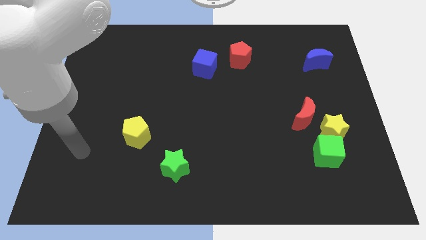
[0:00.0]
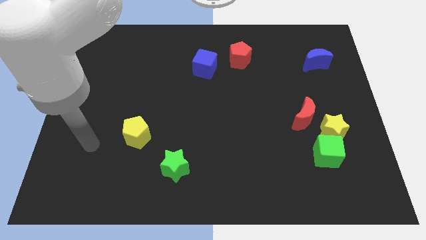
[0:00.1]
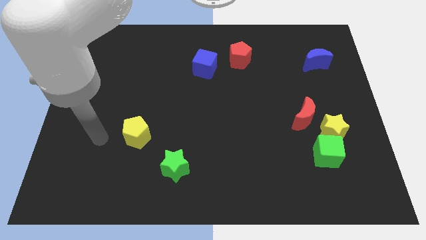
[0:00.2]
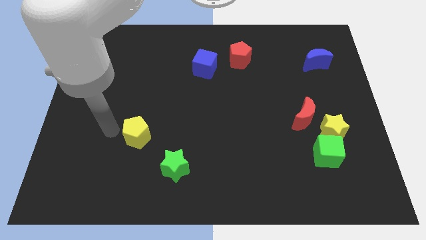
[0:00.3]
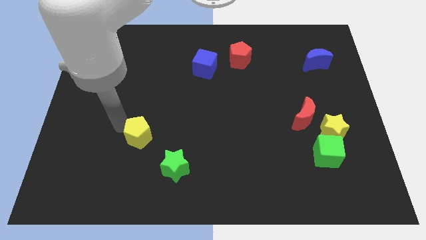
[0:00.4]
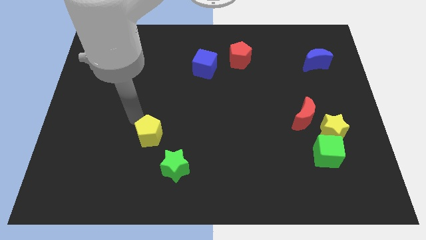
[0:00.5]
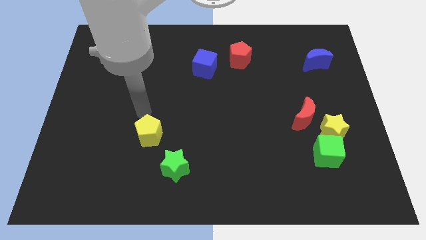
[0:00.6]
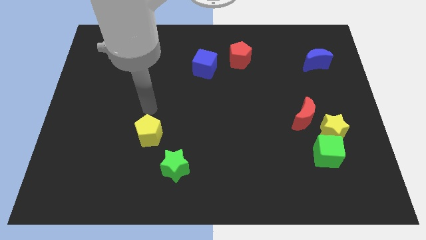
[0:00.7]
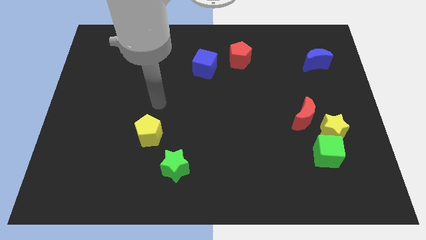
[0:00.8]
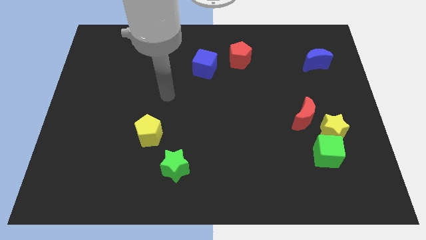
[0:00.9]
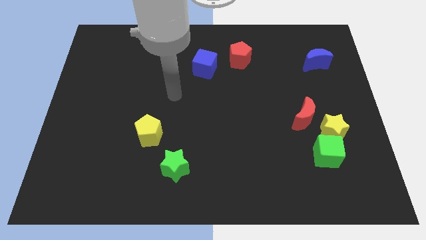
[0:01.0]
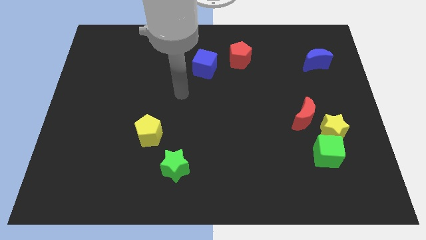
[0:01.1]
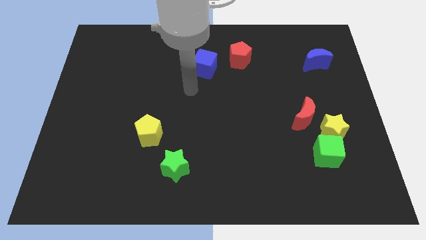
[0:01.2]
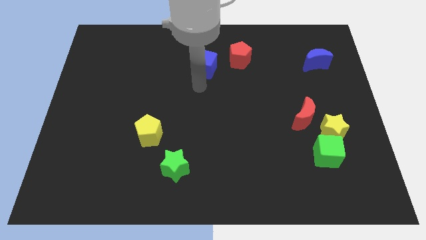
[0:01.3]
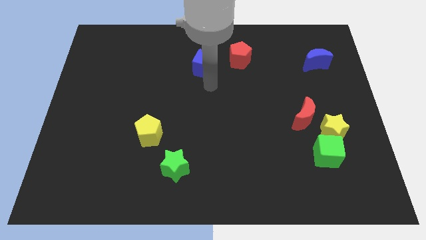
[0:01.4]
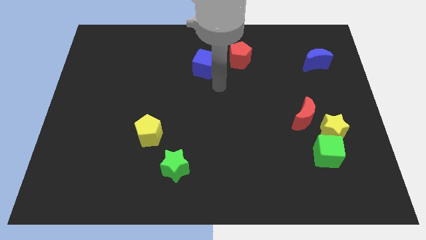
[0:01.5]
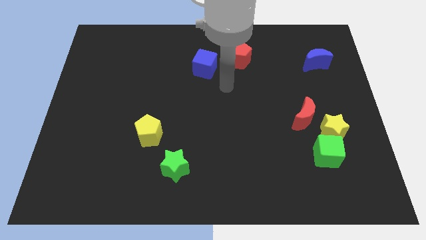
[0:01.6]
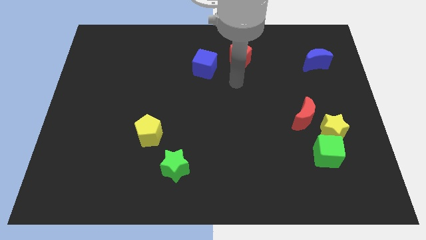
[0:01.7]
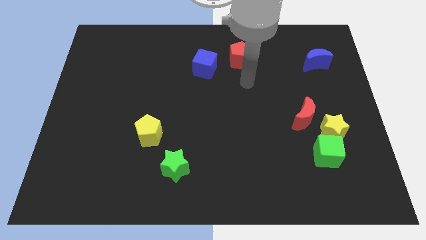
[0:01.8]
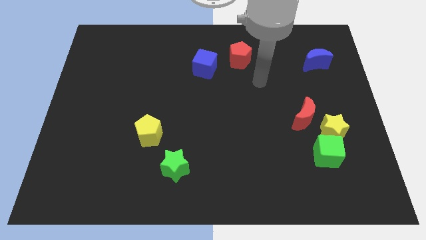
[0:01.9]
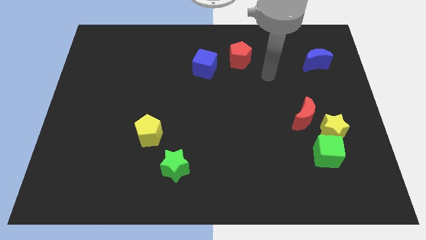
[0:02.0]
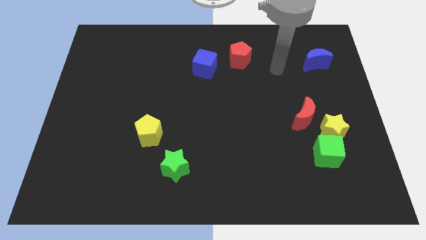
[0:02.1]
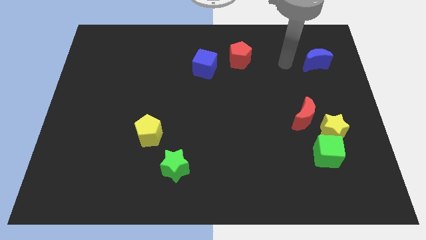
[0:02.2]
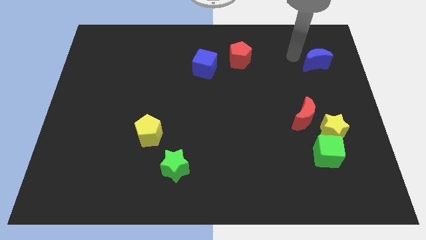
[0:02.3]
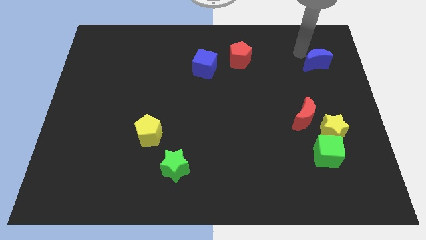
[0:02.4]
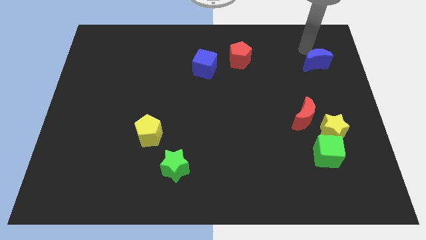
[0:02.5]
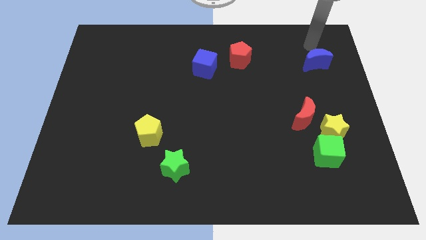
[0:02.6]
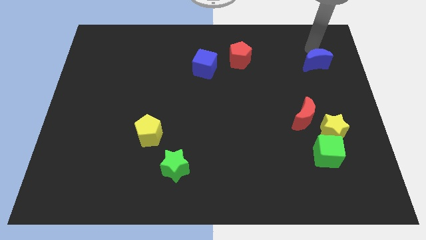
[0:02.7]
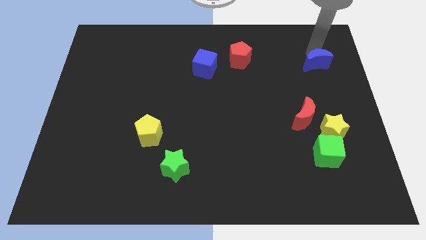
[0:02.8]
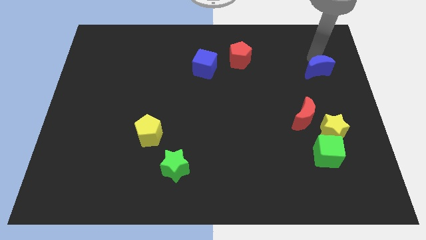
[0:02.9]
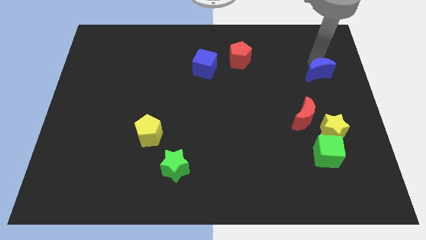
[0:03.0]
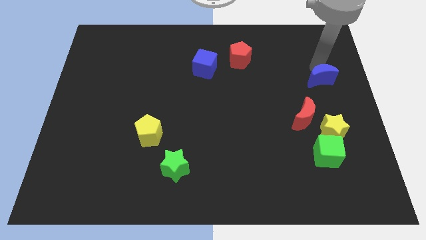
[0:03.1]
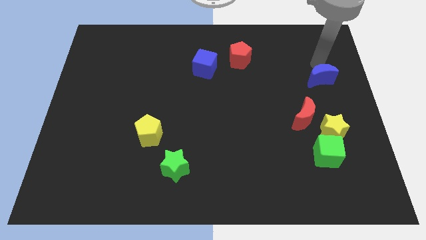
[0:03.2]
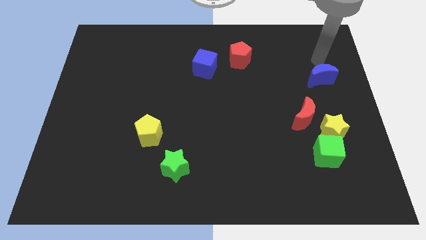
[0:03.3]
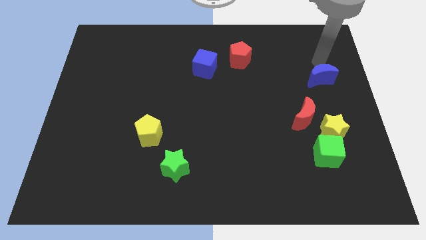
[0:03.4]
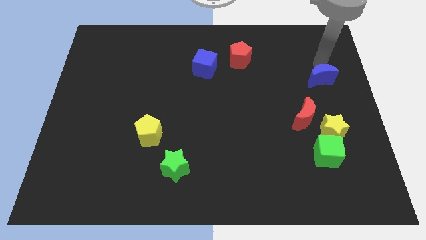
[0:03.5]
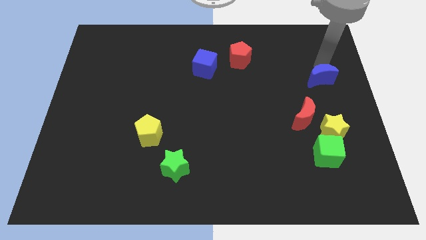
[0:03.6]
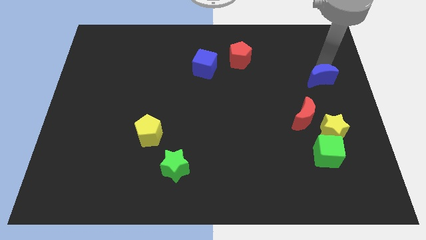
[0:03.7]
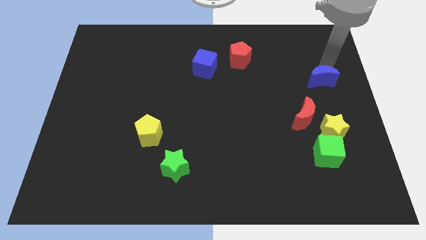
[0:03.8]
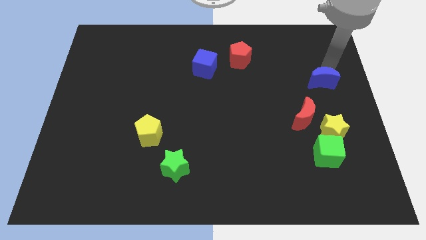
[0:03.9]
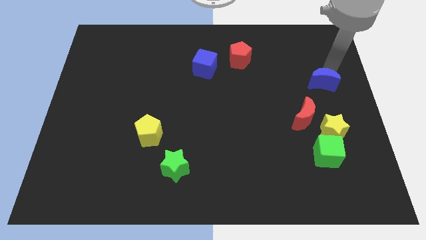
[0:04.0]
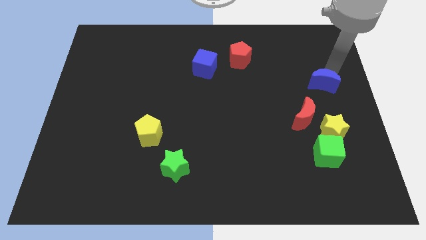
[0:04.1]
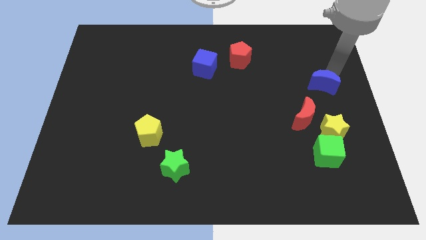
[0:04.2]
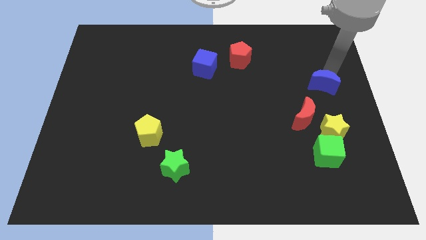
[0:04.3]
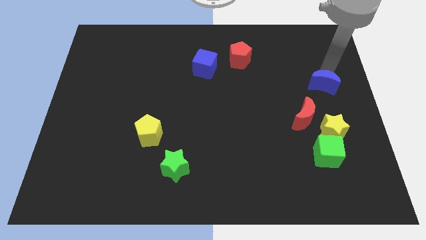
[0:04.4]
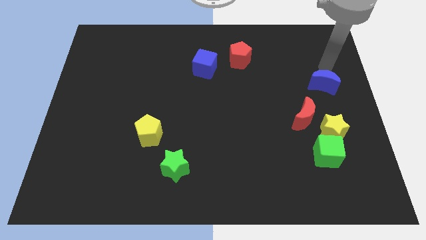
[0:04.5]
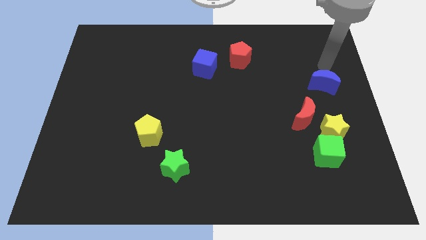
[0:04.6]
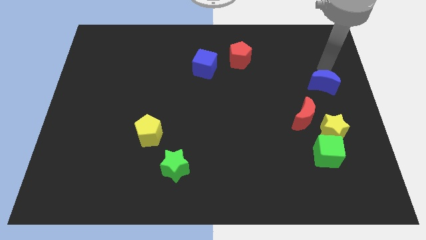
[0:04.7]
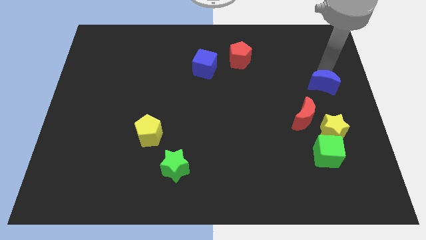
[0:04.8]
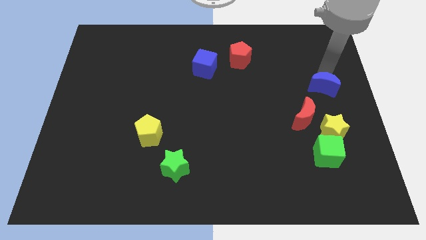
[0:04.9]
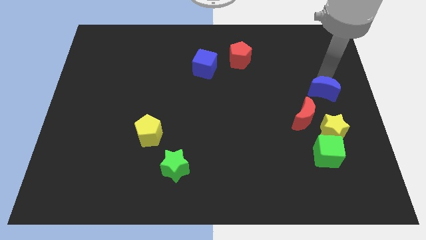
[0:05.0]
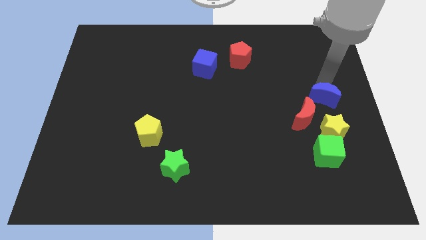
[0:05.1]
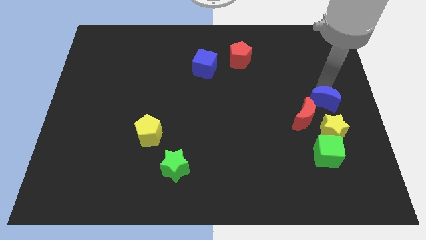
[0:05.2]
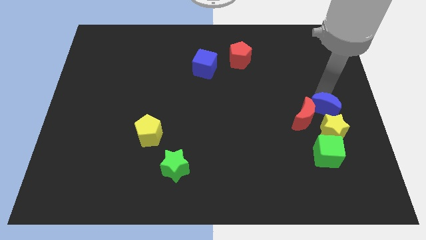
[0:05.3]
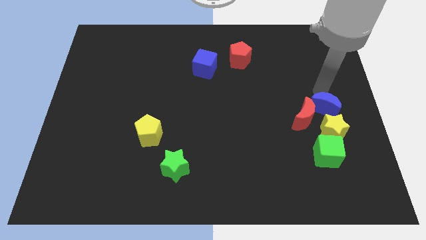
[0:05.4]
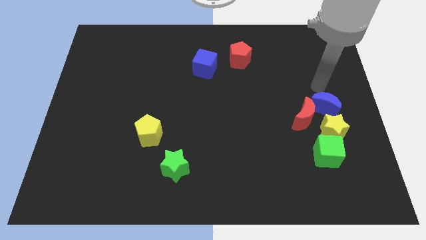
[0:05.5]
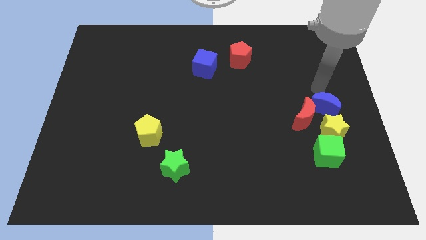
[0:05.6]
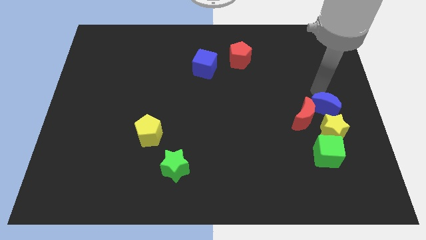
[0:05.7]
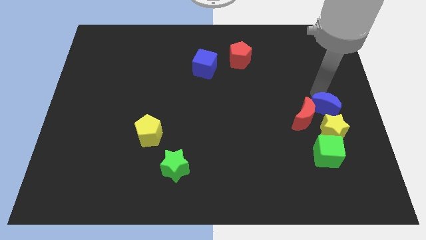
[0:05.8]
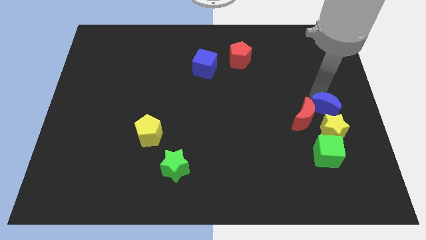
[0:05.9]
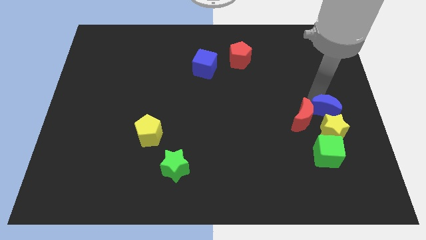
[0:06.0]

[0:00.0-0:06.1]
put the blue moon next to the yellow star

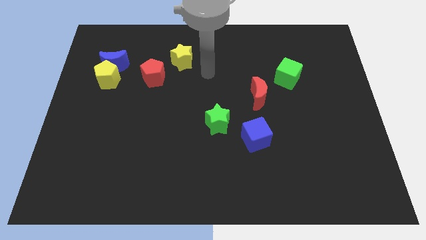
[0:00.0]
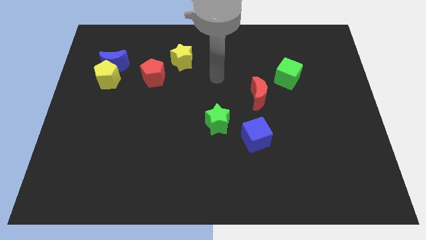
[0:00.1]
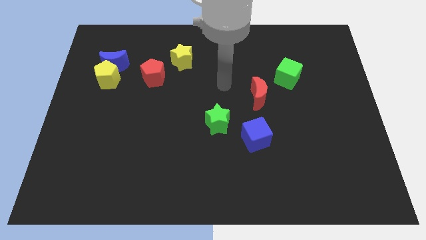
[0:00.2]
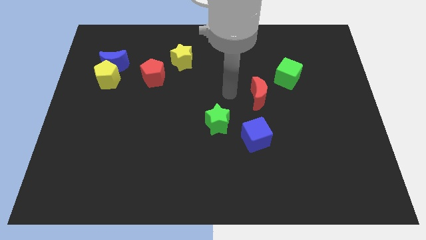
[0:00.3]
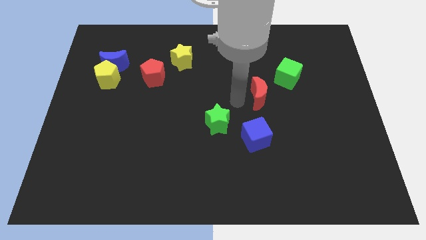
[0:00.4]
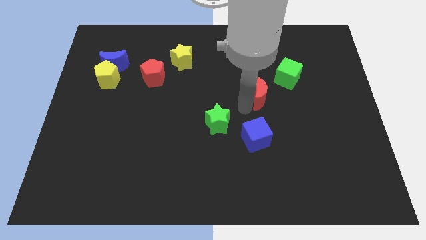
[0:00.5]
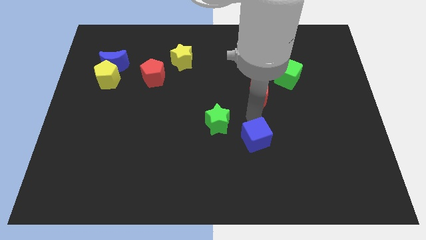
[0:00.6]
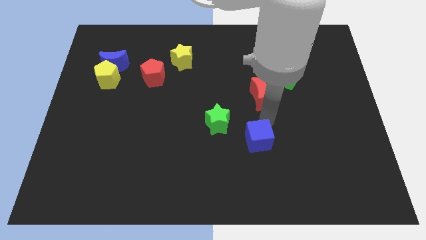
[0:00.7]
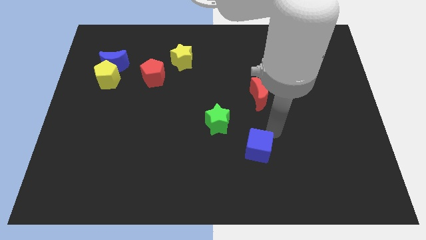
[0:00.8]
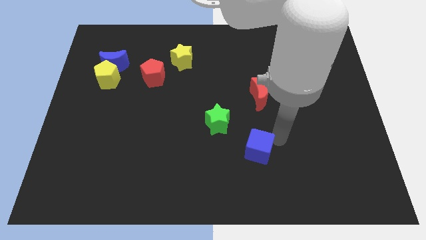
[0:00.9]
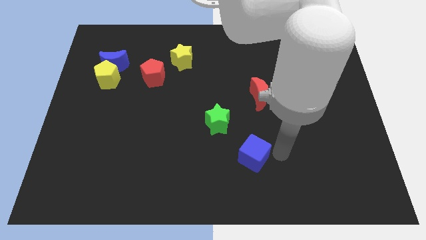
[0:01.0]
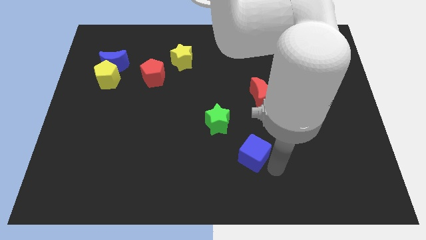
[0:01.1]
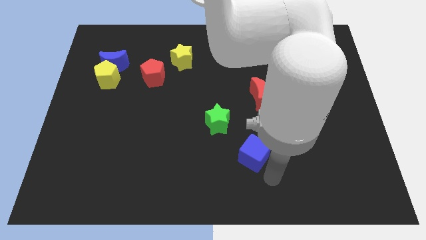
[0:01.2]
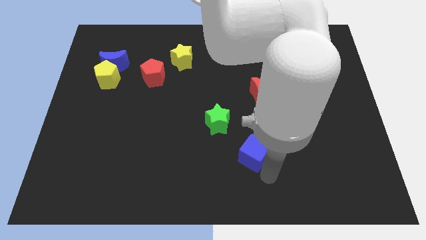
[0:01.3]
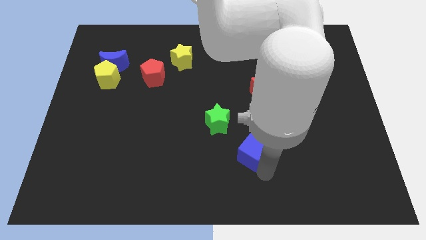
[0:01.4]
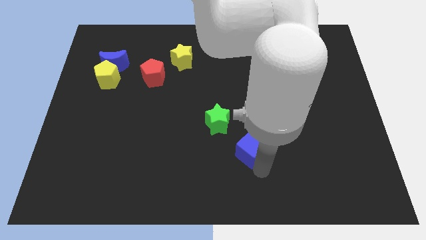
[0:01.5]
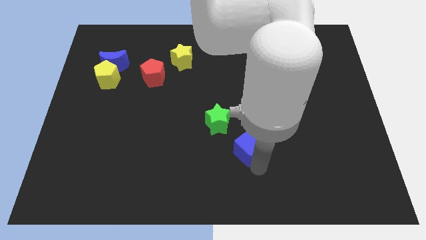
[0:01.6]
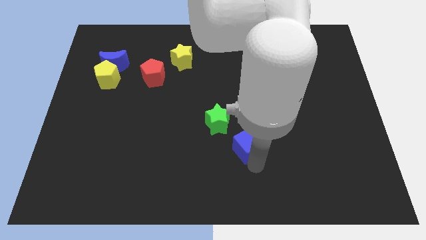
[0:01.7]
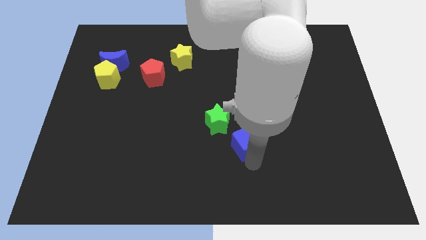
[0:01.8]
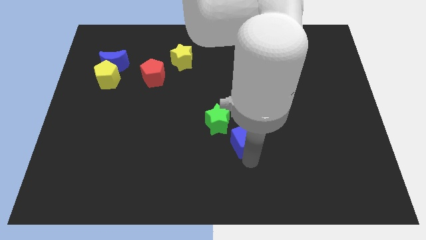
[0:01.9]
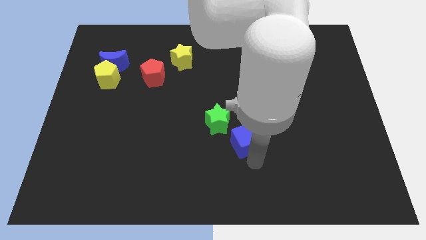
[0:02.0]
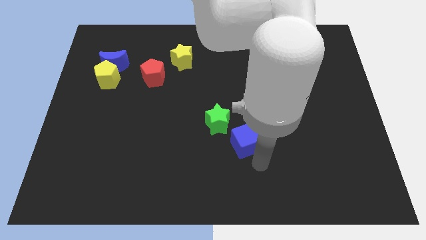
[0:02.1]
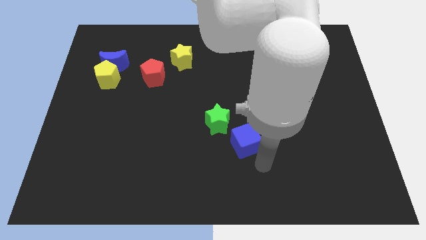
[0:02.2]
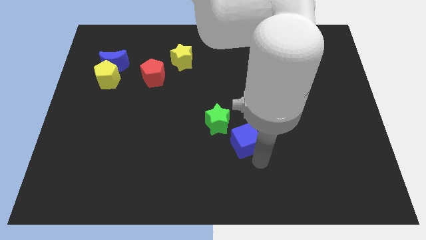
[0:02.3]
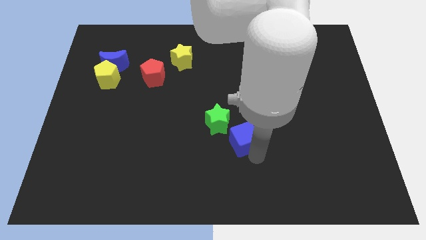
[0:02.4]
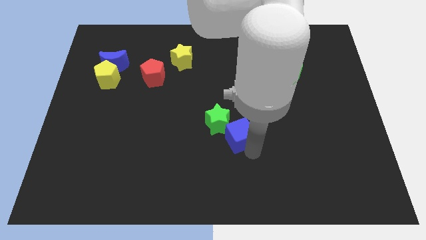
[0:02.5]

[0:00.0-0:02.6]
push the blue cube to the green star
